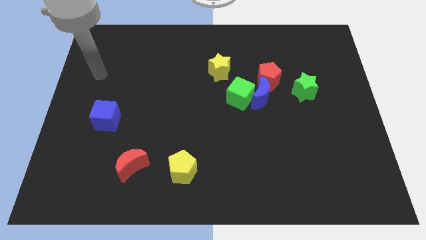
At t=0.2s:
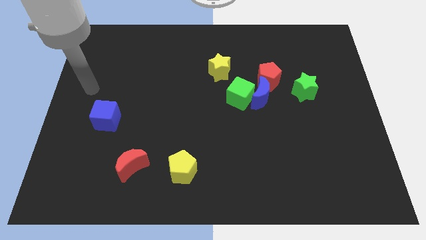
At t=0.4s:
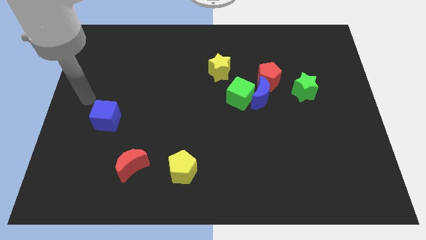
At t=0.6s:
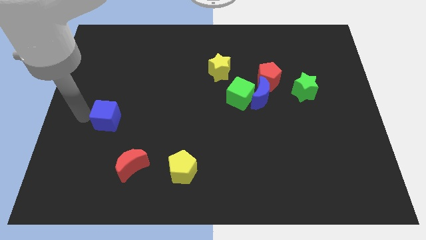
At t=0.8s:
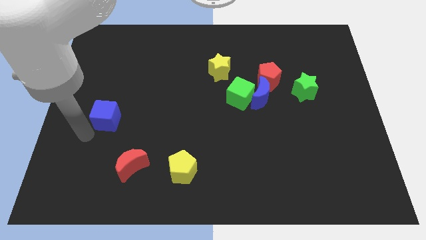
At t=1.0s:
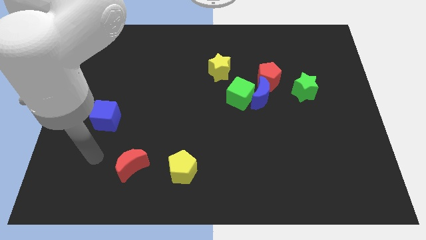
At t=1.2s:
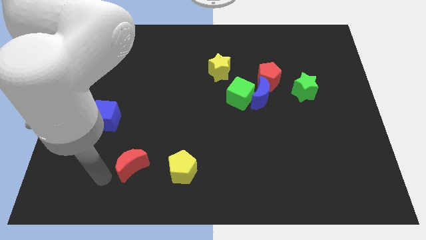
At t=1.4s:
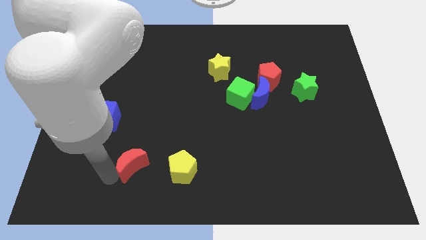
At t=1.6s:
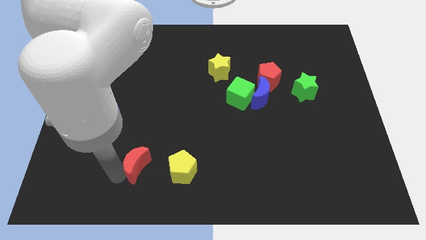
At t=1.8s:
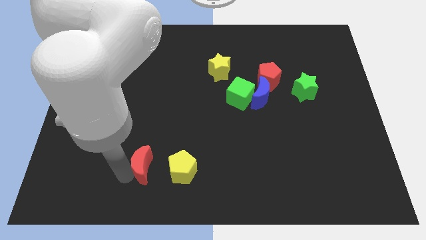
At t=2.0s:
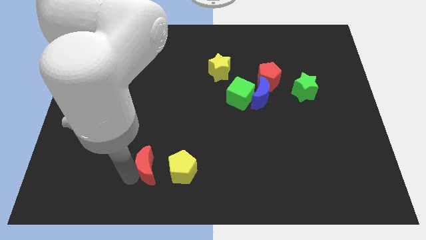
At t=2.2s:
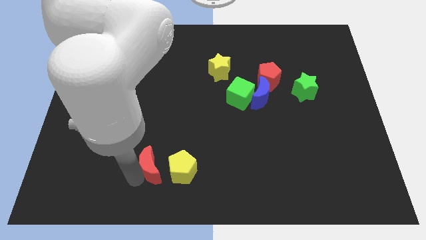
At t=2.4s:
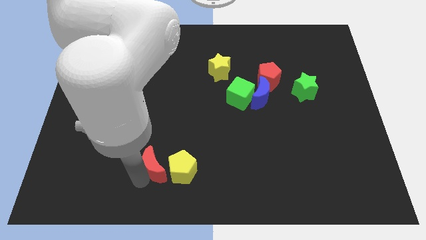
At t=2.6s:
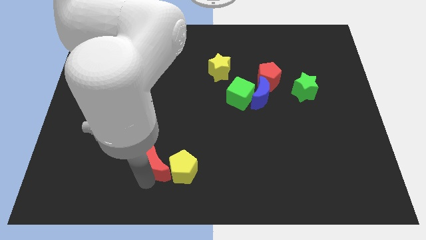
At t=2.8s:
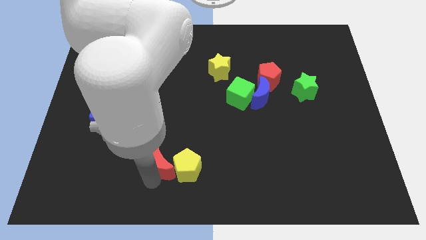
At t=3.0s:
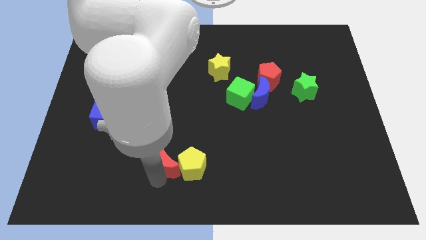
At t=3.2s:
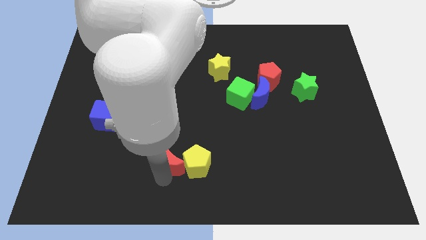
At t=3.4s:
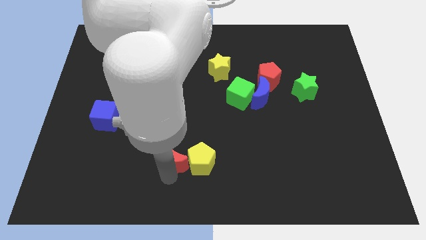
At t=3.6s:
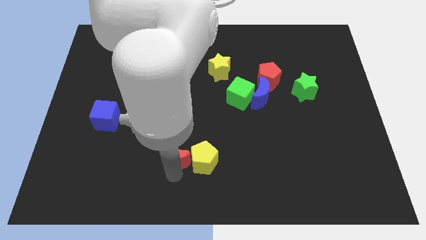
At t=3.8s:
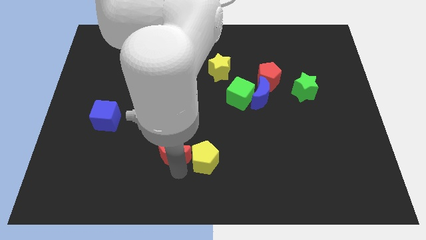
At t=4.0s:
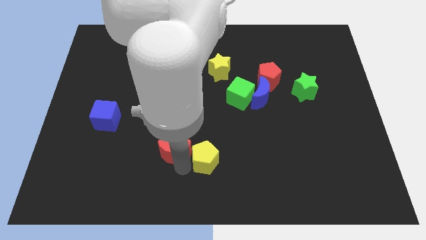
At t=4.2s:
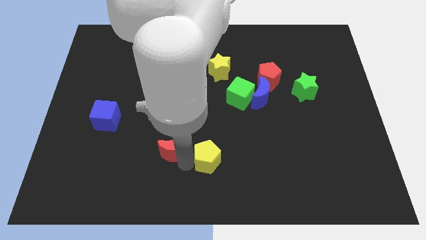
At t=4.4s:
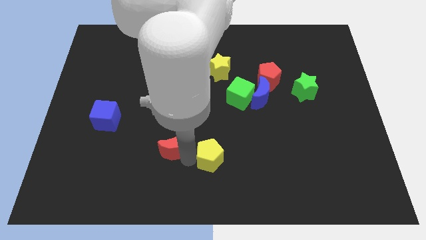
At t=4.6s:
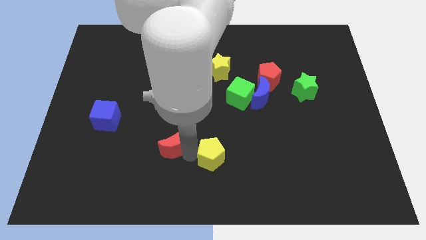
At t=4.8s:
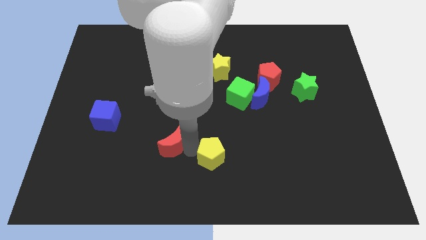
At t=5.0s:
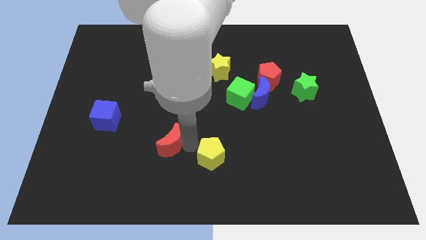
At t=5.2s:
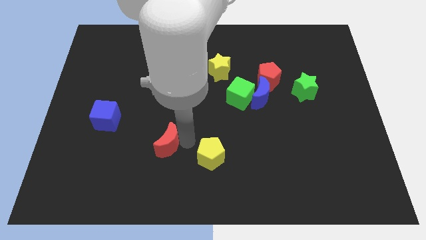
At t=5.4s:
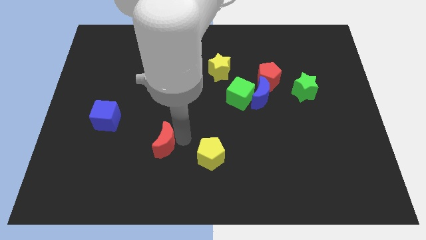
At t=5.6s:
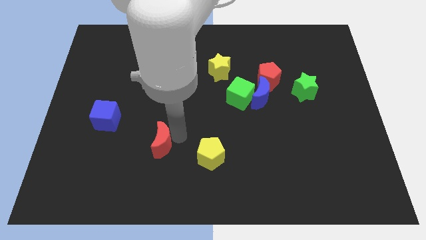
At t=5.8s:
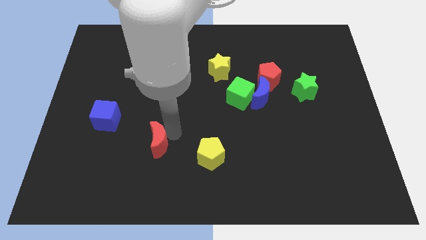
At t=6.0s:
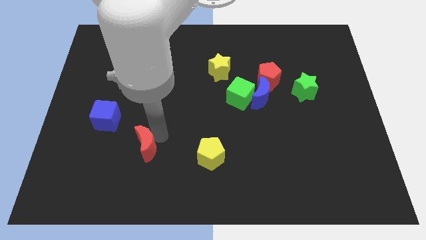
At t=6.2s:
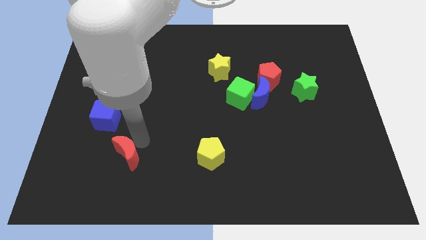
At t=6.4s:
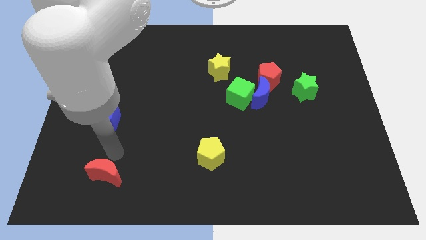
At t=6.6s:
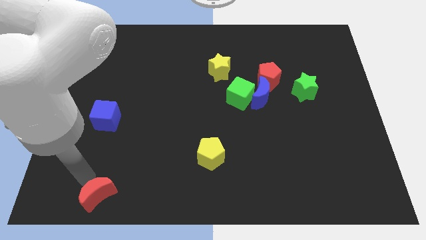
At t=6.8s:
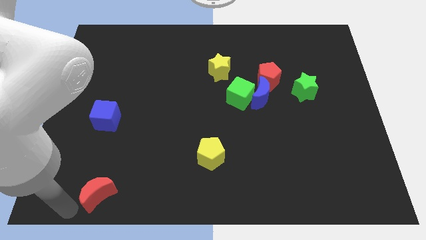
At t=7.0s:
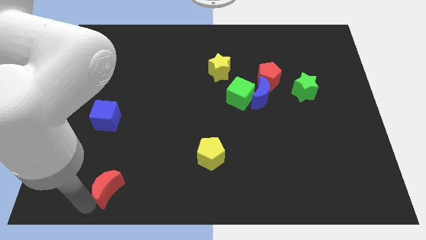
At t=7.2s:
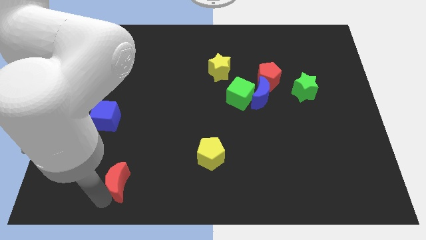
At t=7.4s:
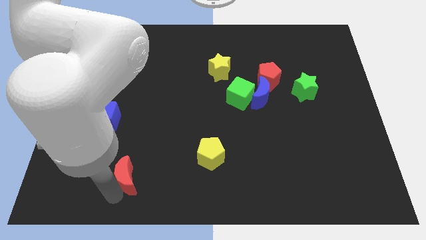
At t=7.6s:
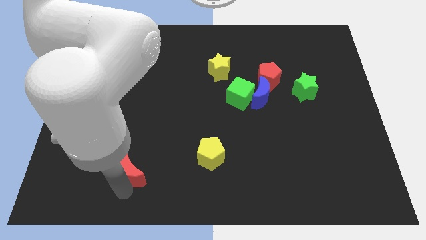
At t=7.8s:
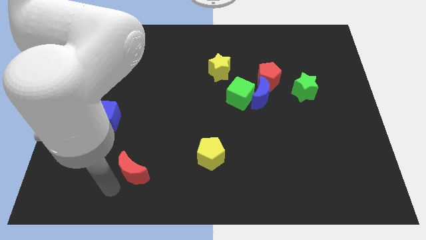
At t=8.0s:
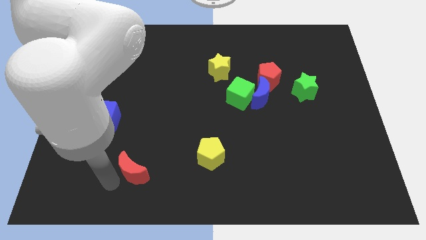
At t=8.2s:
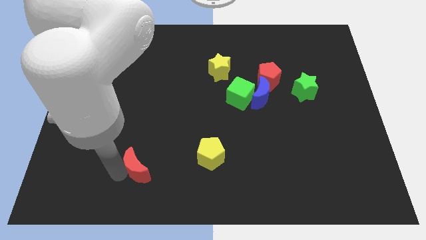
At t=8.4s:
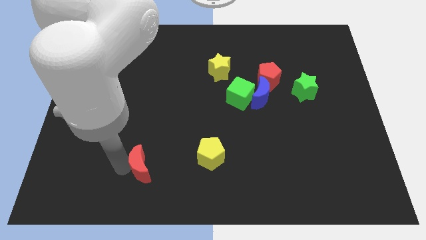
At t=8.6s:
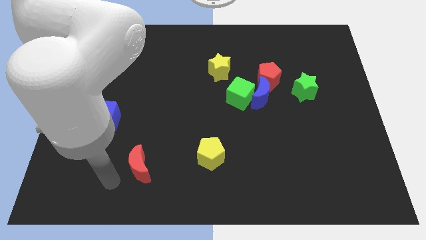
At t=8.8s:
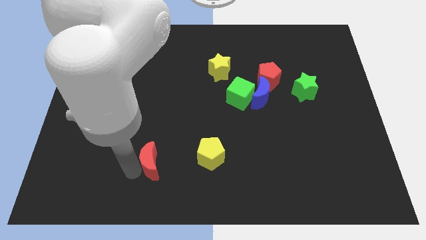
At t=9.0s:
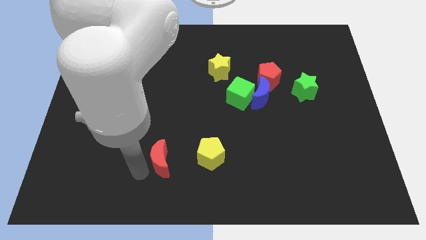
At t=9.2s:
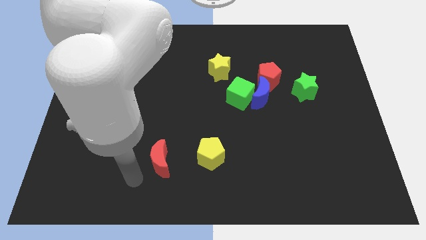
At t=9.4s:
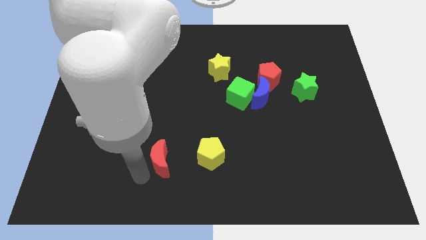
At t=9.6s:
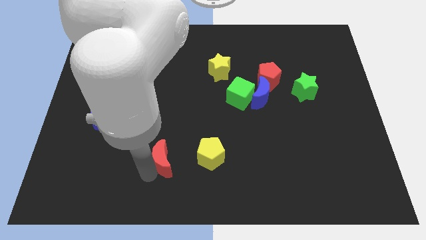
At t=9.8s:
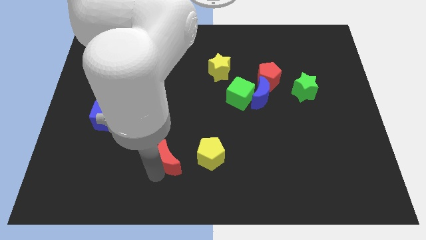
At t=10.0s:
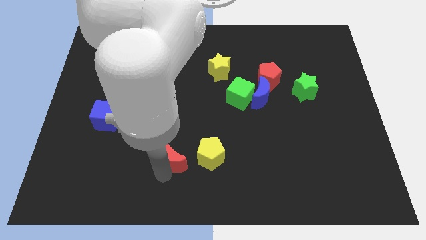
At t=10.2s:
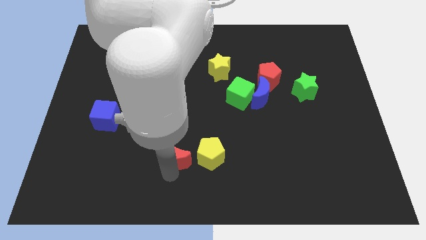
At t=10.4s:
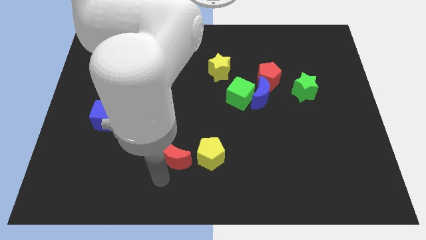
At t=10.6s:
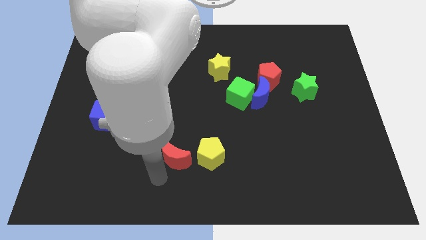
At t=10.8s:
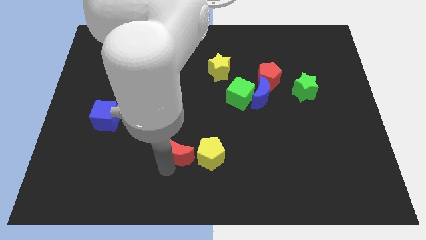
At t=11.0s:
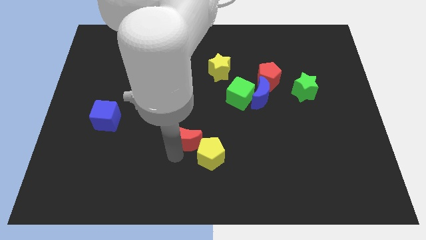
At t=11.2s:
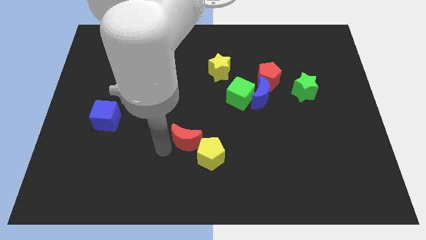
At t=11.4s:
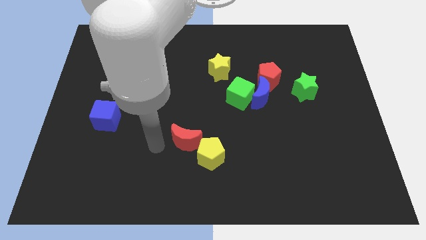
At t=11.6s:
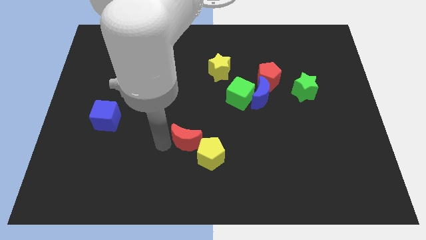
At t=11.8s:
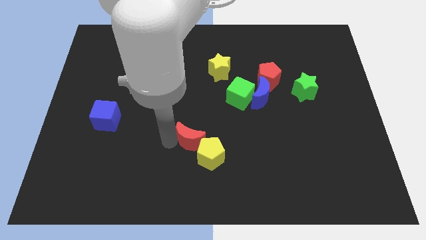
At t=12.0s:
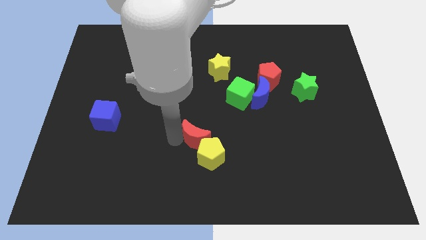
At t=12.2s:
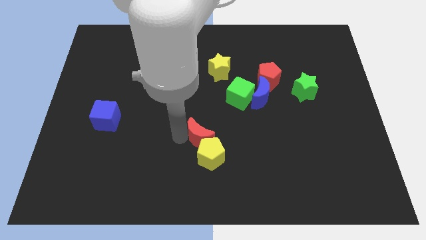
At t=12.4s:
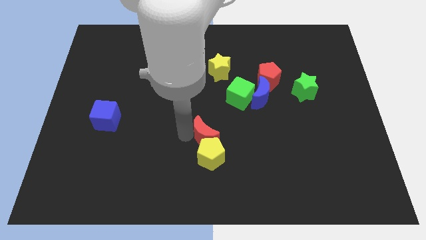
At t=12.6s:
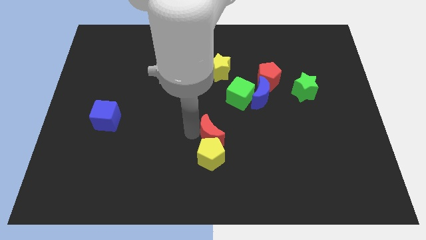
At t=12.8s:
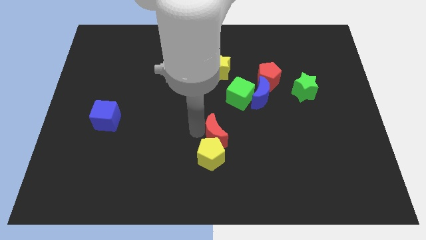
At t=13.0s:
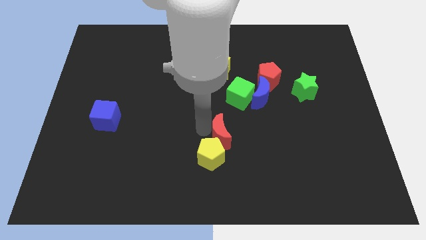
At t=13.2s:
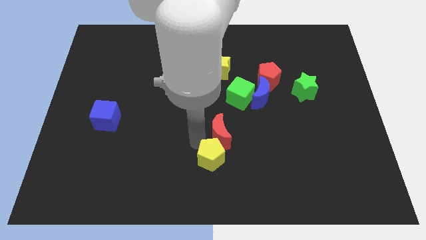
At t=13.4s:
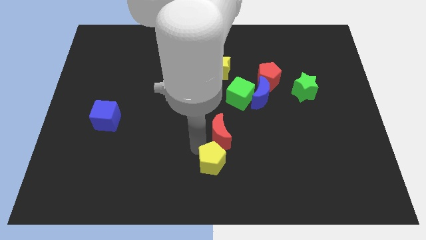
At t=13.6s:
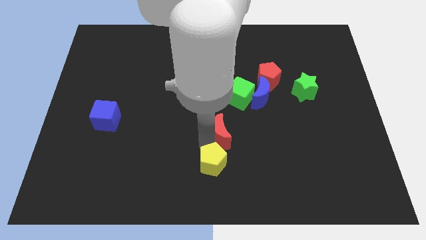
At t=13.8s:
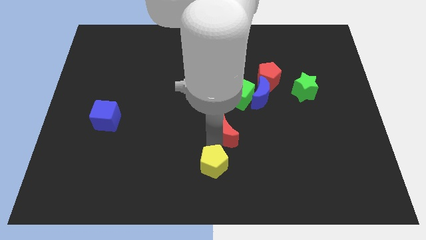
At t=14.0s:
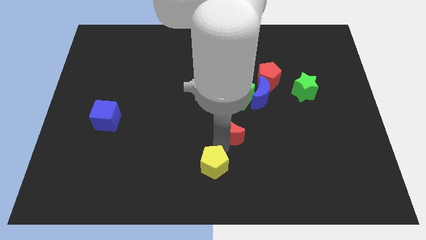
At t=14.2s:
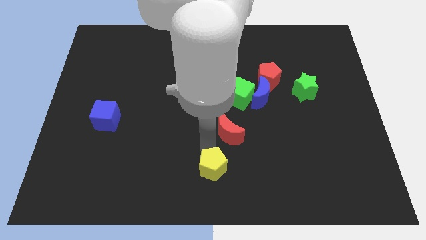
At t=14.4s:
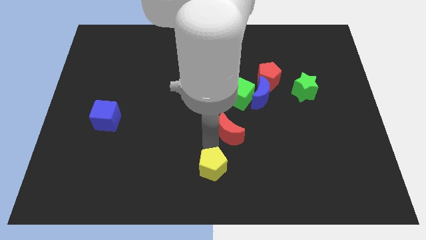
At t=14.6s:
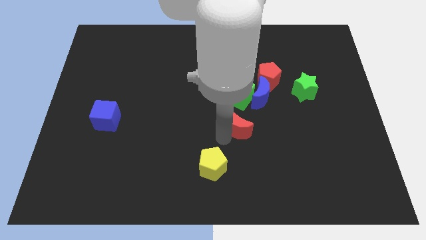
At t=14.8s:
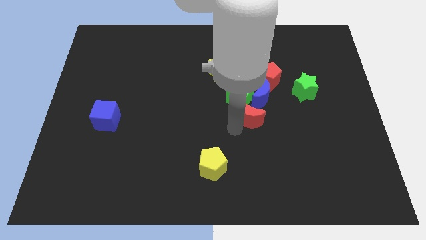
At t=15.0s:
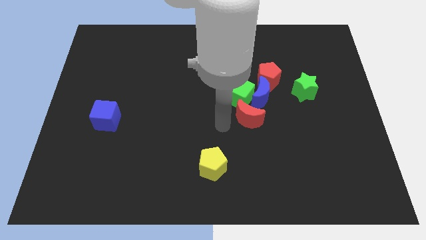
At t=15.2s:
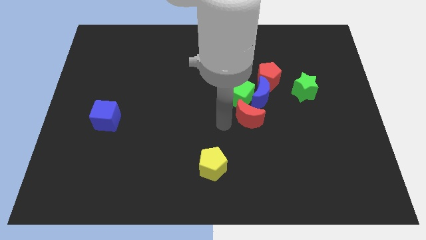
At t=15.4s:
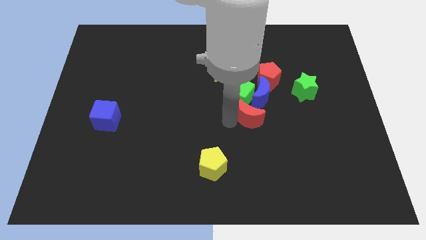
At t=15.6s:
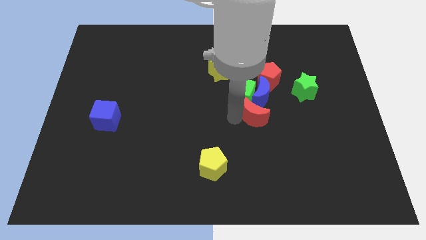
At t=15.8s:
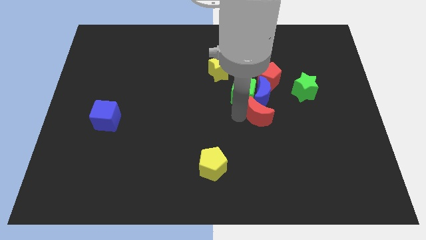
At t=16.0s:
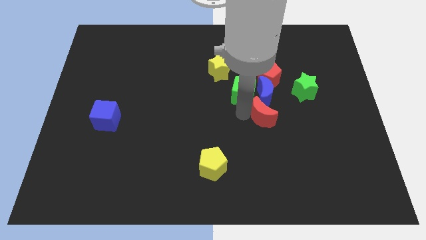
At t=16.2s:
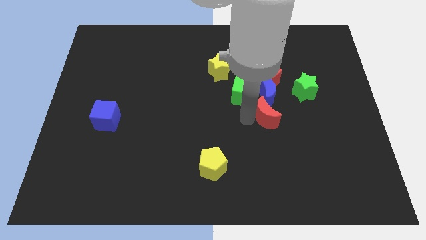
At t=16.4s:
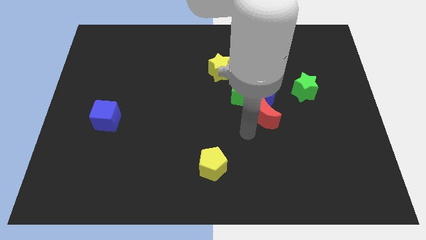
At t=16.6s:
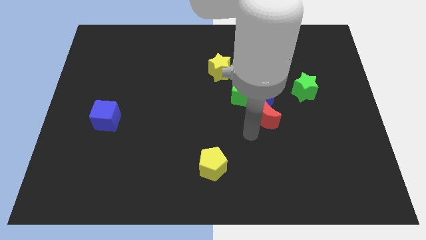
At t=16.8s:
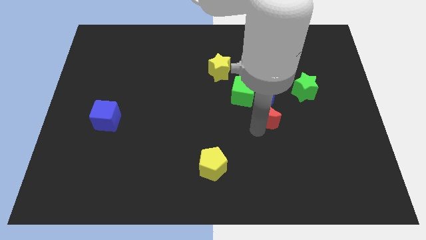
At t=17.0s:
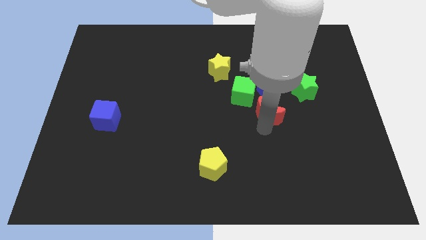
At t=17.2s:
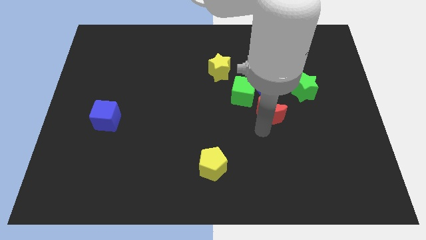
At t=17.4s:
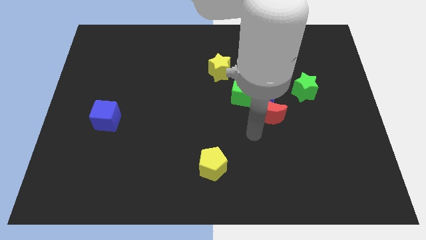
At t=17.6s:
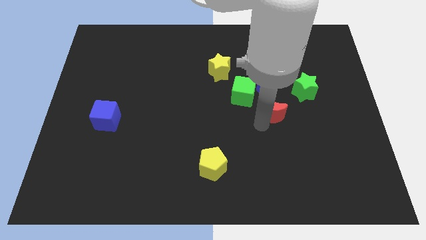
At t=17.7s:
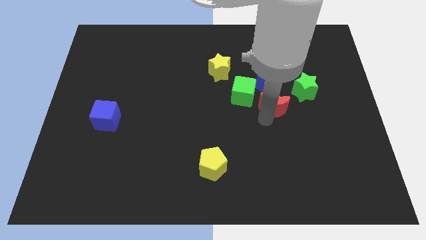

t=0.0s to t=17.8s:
slide the red moon to the right side of the green cube
